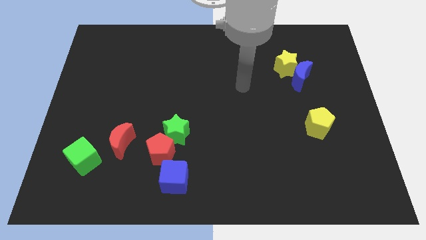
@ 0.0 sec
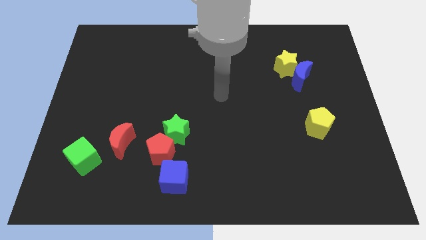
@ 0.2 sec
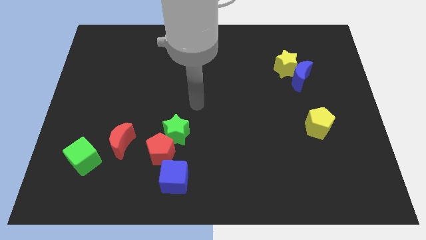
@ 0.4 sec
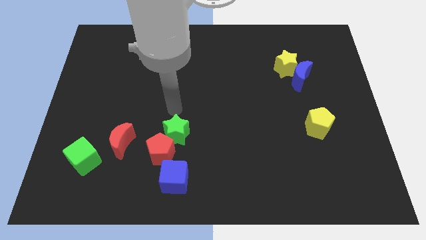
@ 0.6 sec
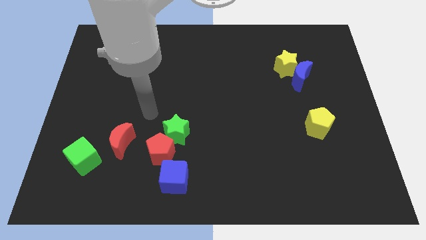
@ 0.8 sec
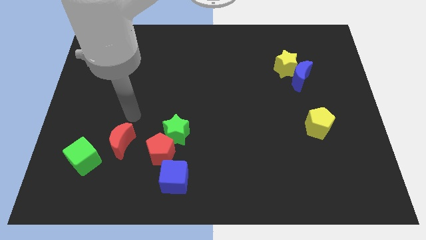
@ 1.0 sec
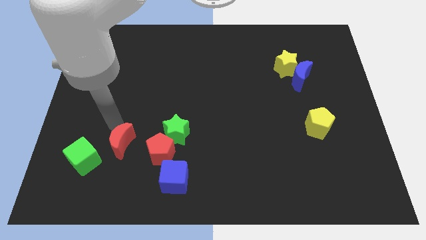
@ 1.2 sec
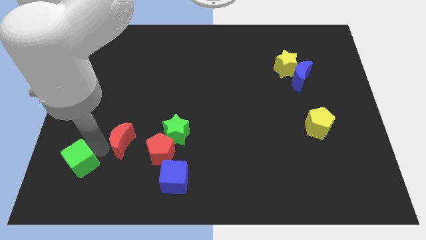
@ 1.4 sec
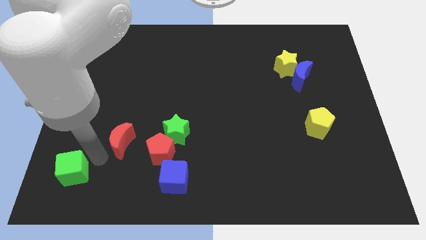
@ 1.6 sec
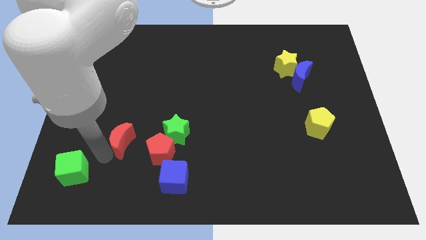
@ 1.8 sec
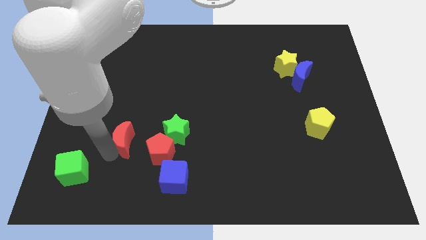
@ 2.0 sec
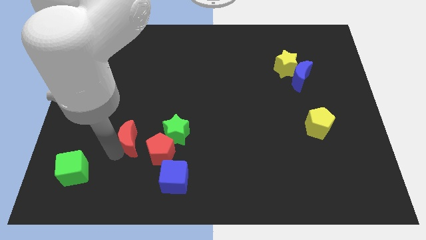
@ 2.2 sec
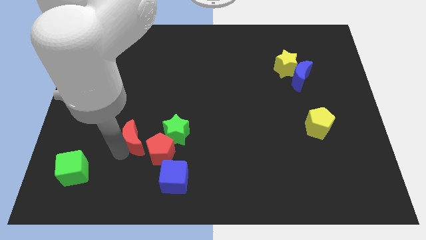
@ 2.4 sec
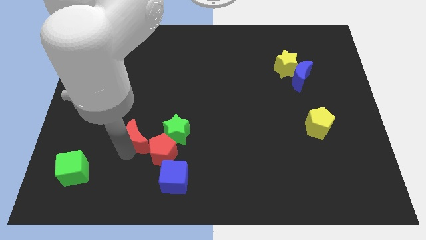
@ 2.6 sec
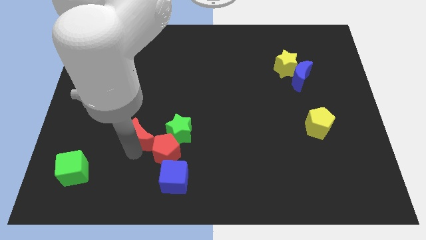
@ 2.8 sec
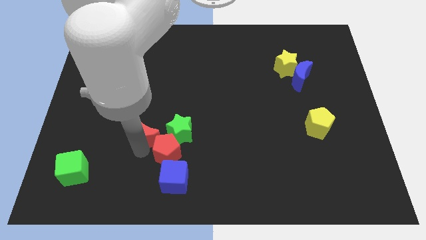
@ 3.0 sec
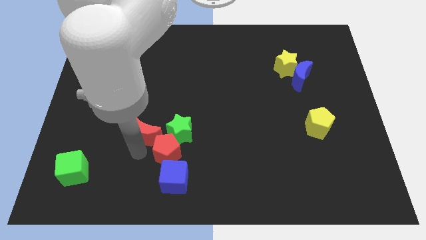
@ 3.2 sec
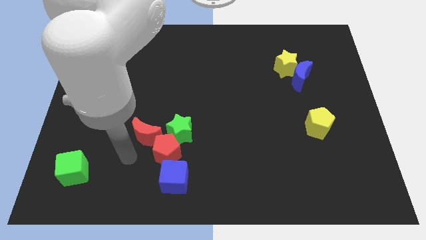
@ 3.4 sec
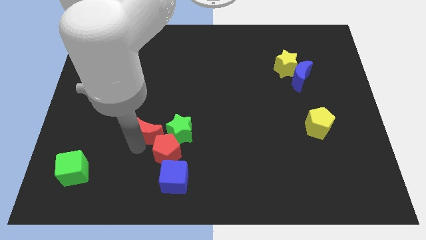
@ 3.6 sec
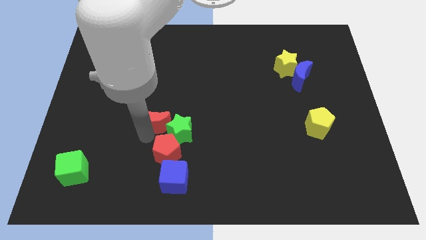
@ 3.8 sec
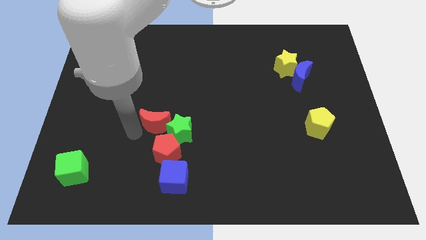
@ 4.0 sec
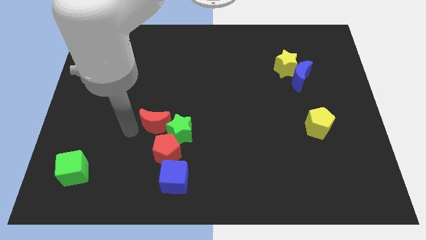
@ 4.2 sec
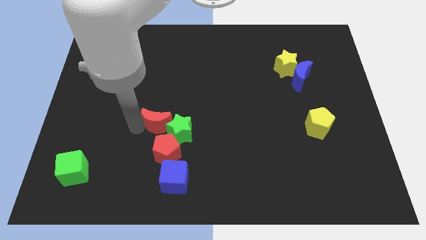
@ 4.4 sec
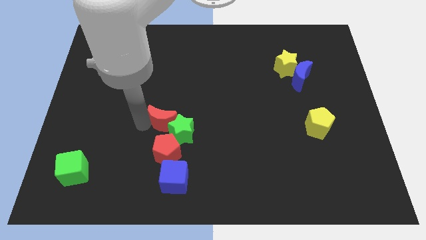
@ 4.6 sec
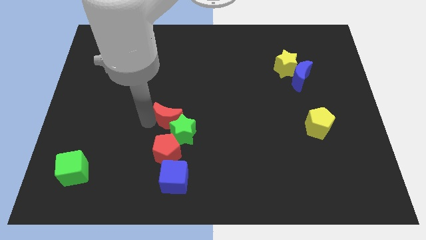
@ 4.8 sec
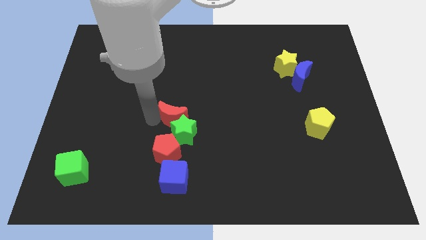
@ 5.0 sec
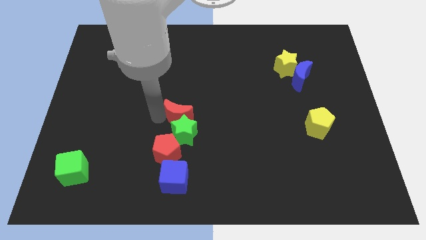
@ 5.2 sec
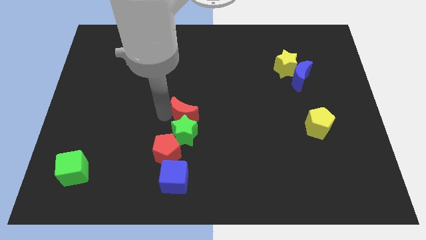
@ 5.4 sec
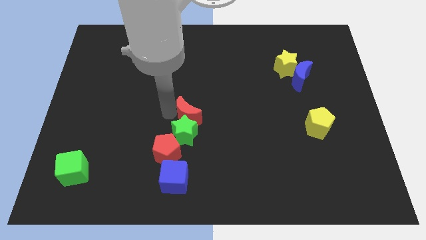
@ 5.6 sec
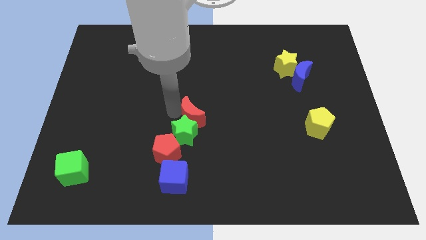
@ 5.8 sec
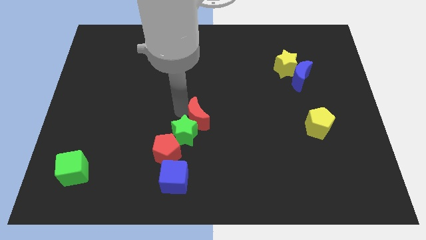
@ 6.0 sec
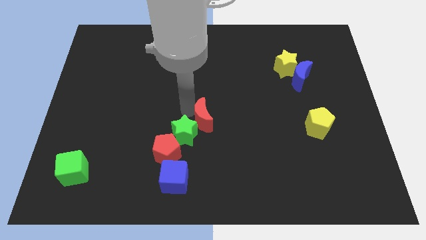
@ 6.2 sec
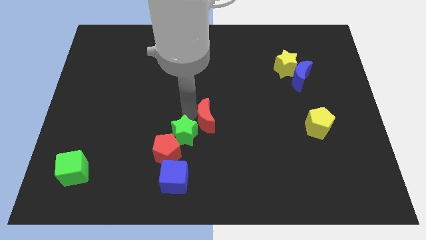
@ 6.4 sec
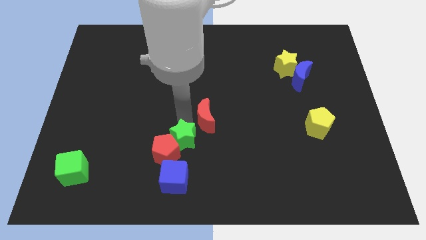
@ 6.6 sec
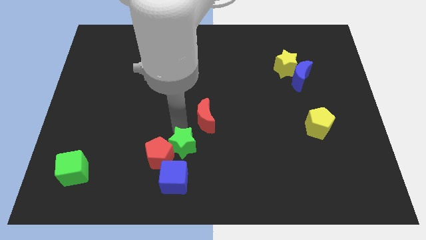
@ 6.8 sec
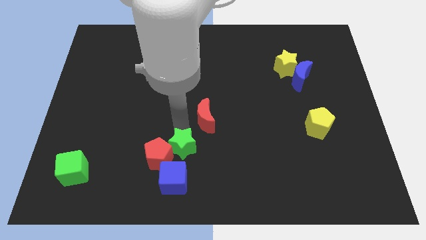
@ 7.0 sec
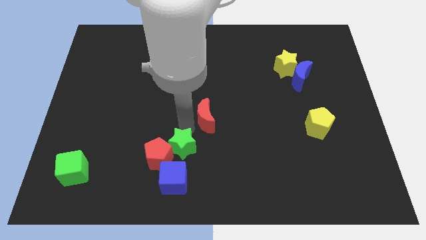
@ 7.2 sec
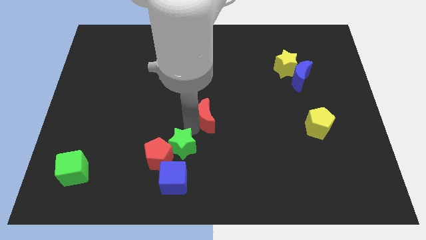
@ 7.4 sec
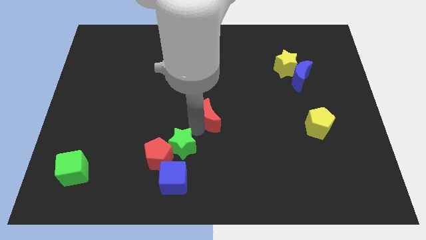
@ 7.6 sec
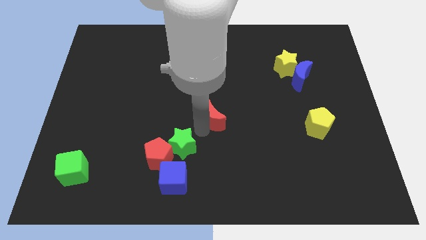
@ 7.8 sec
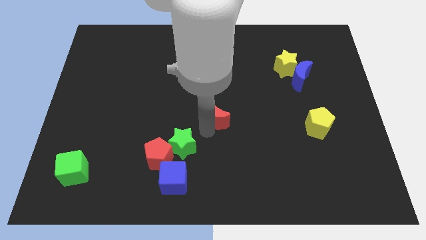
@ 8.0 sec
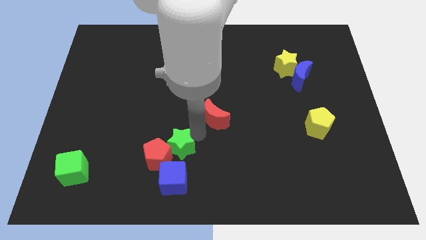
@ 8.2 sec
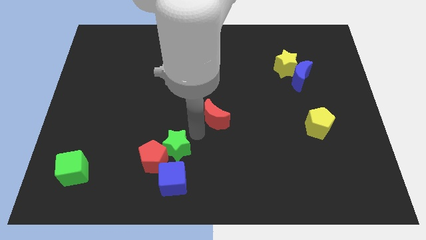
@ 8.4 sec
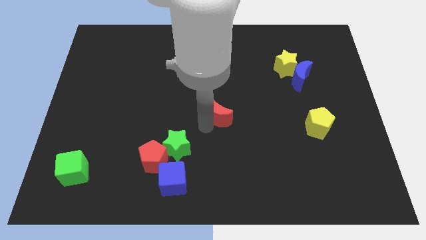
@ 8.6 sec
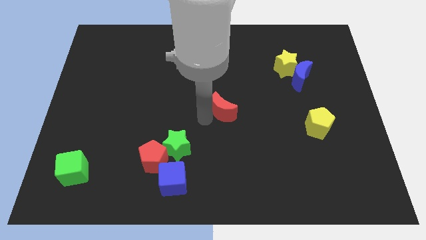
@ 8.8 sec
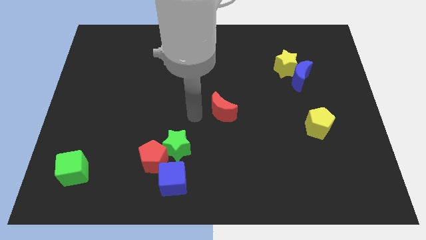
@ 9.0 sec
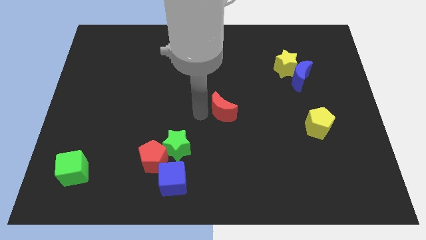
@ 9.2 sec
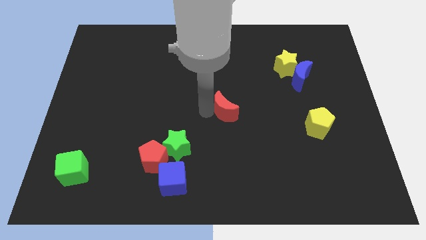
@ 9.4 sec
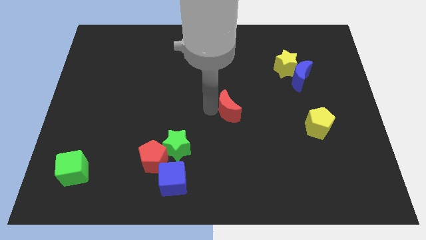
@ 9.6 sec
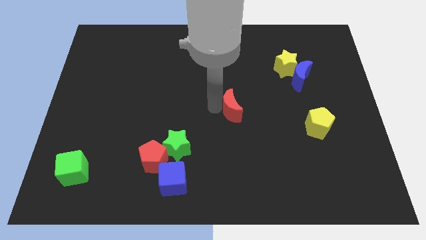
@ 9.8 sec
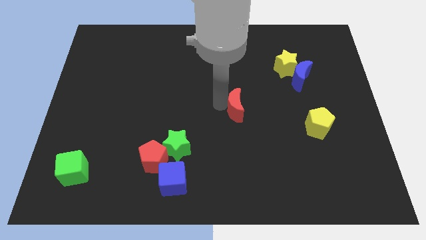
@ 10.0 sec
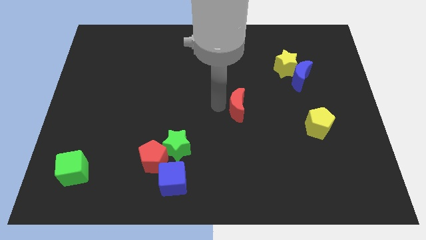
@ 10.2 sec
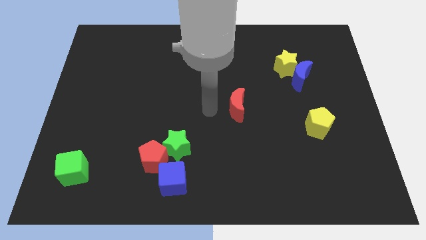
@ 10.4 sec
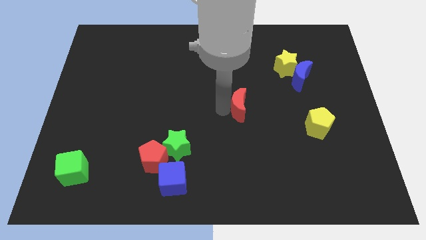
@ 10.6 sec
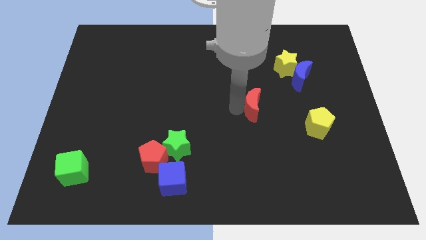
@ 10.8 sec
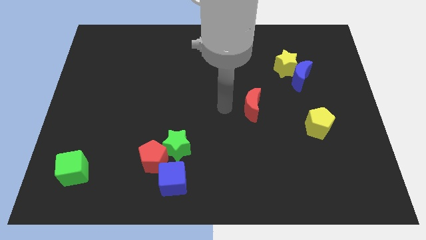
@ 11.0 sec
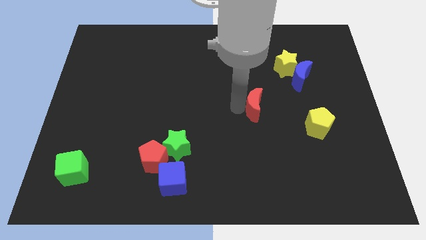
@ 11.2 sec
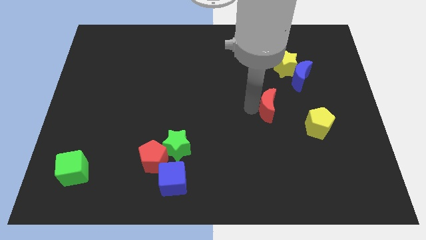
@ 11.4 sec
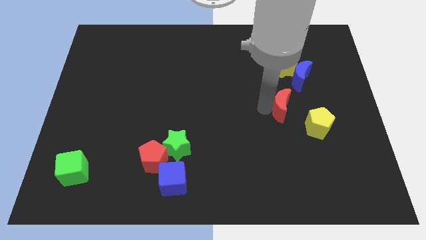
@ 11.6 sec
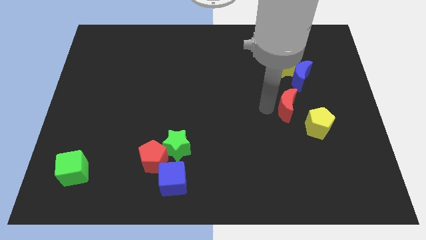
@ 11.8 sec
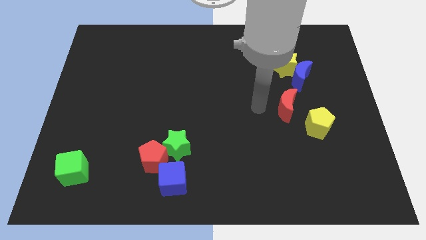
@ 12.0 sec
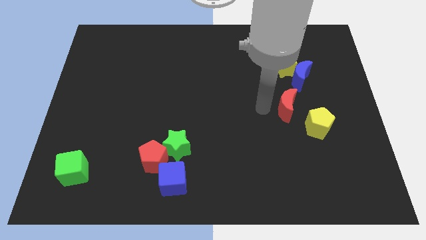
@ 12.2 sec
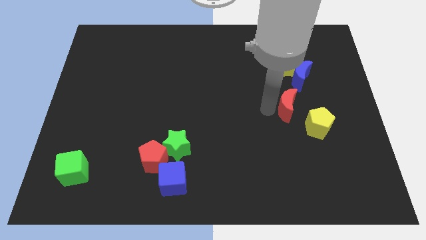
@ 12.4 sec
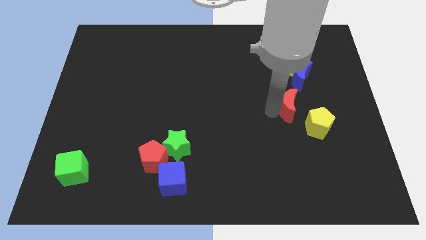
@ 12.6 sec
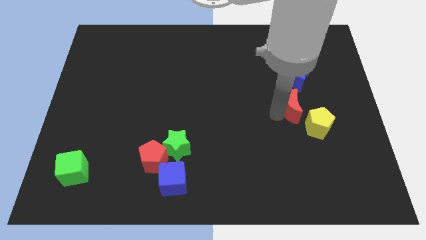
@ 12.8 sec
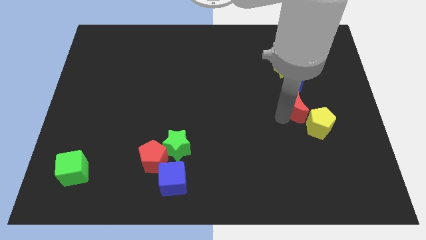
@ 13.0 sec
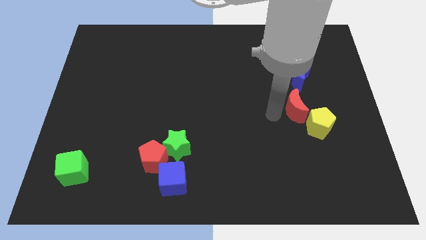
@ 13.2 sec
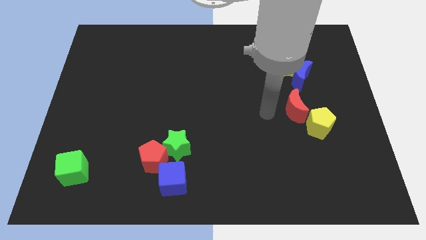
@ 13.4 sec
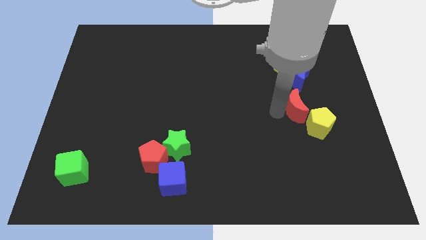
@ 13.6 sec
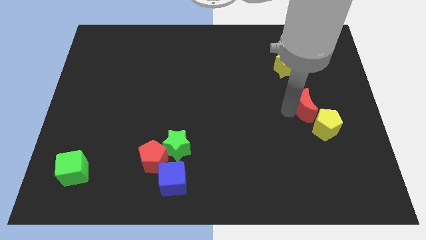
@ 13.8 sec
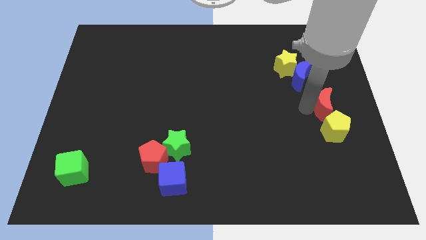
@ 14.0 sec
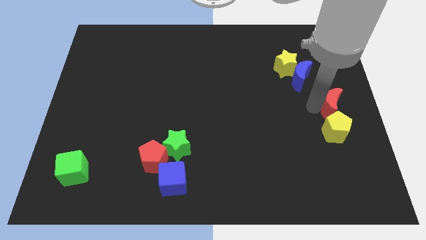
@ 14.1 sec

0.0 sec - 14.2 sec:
push the red moon diagonally up and to the right of the yellow pentagon

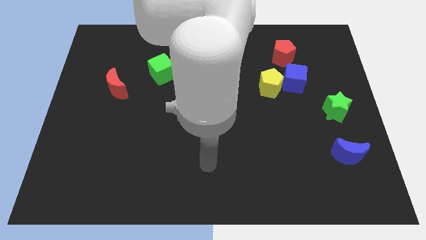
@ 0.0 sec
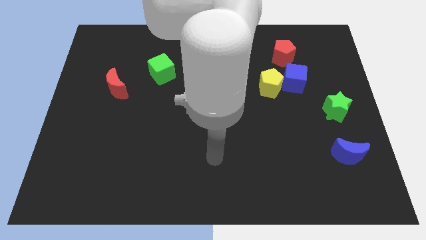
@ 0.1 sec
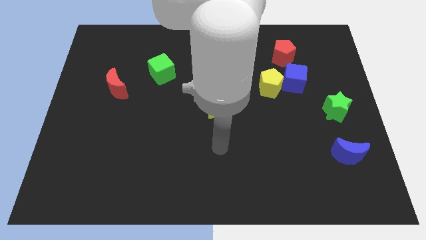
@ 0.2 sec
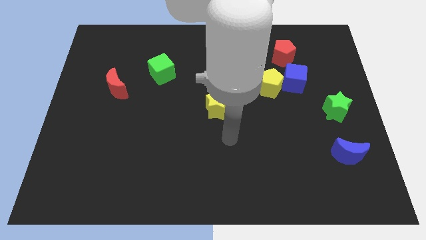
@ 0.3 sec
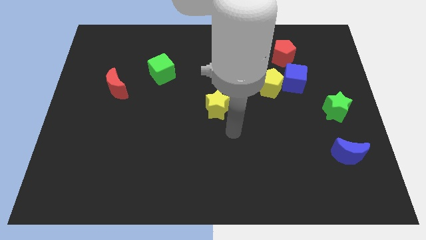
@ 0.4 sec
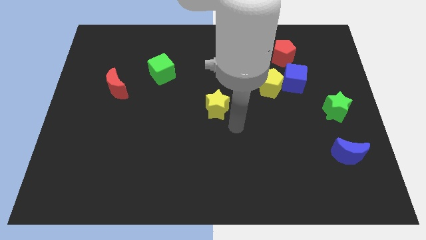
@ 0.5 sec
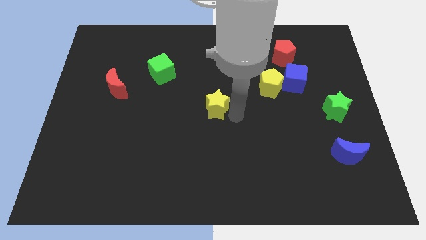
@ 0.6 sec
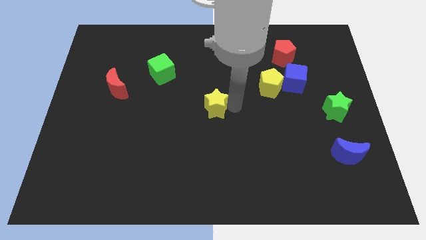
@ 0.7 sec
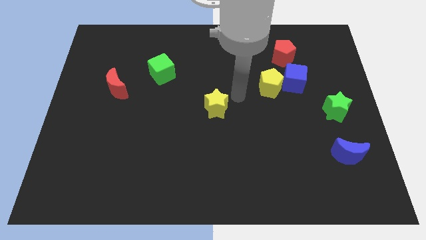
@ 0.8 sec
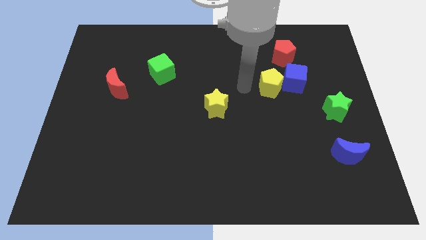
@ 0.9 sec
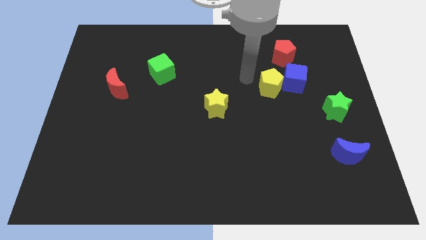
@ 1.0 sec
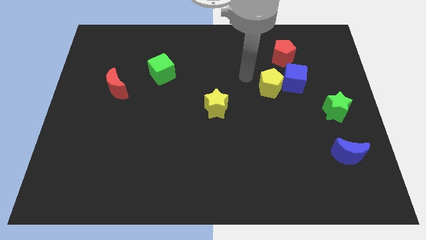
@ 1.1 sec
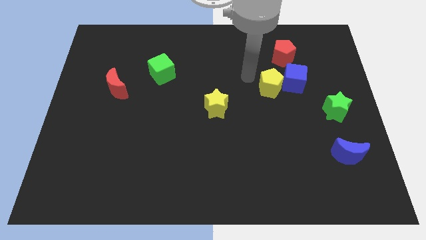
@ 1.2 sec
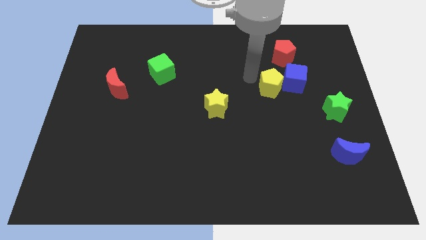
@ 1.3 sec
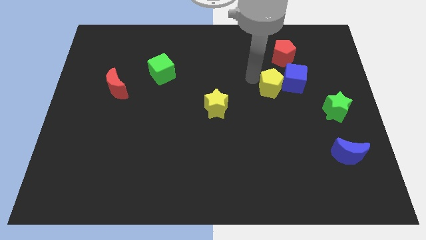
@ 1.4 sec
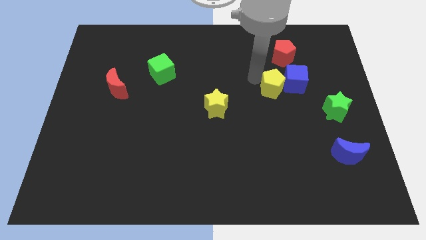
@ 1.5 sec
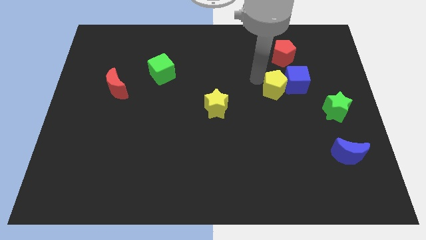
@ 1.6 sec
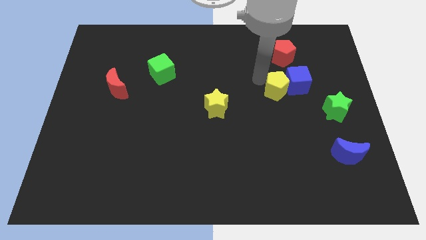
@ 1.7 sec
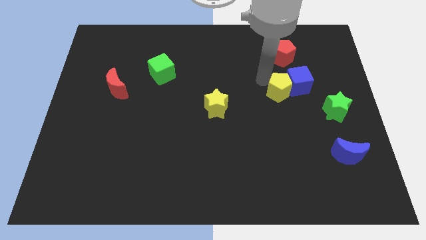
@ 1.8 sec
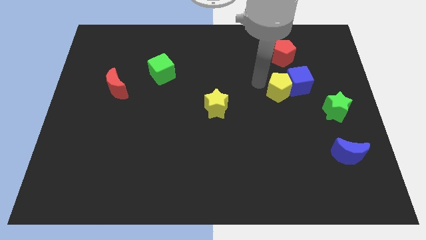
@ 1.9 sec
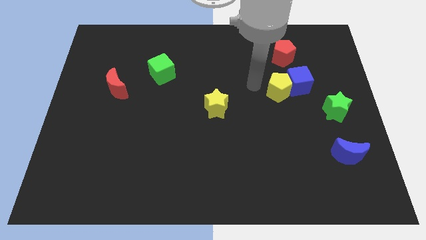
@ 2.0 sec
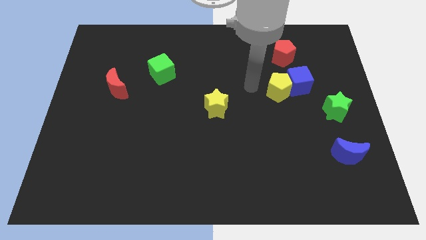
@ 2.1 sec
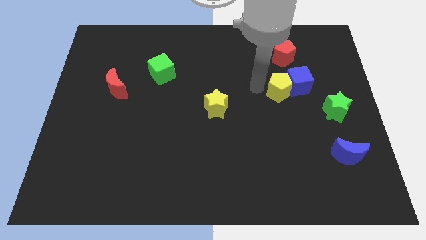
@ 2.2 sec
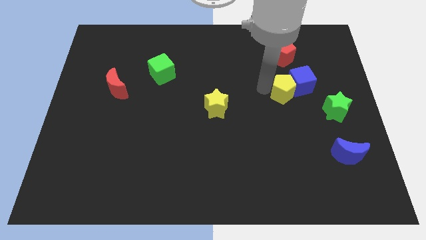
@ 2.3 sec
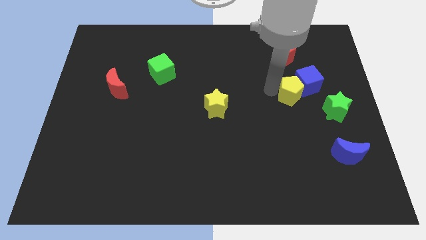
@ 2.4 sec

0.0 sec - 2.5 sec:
put the yellow pentagon to the top left of the green star
